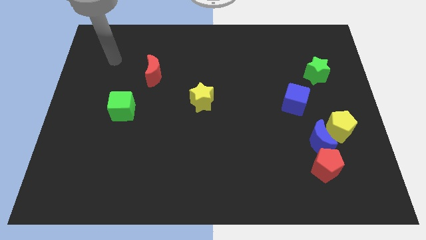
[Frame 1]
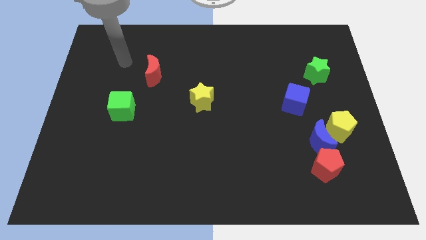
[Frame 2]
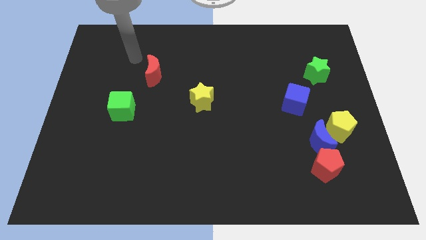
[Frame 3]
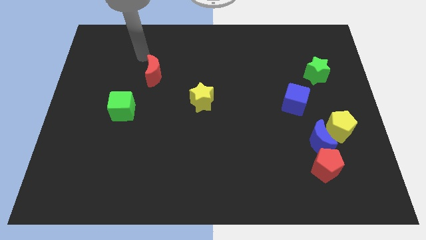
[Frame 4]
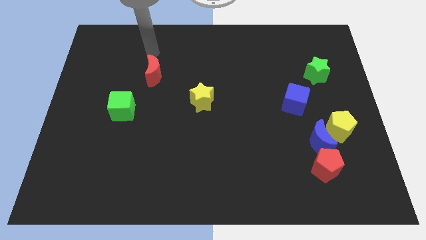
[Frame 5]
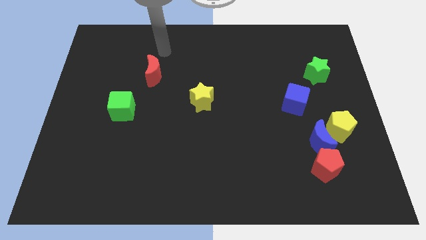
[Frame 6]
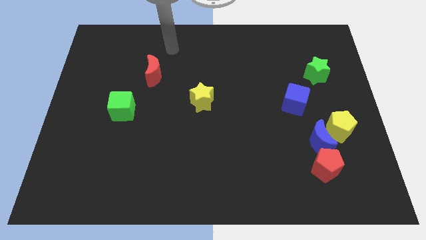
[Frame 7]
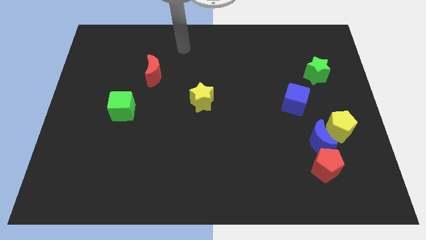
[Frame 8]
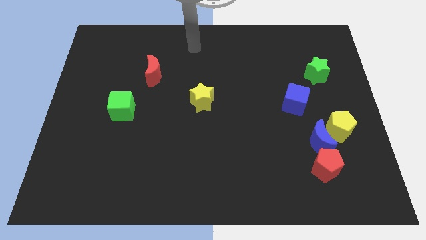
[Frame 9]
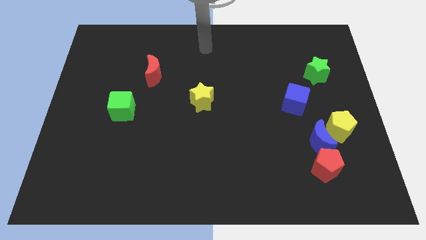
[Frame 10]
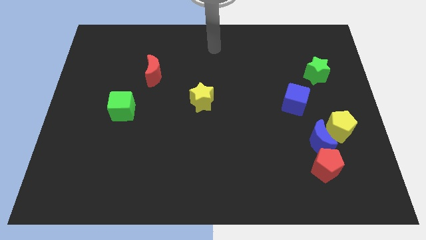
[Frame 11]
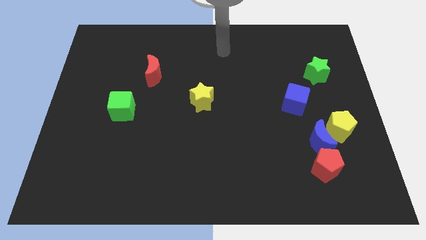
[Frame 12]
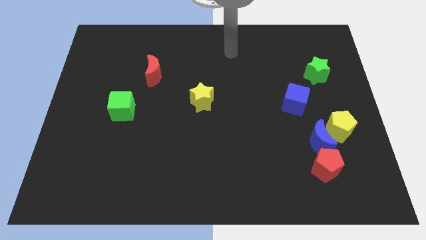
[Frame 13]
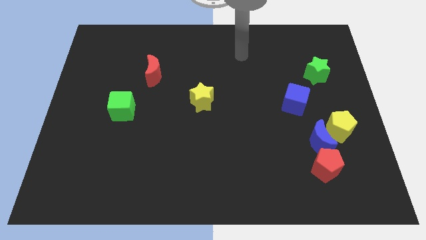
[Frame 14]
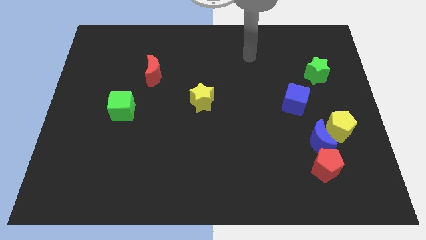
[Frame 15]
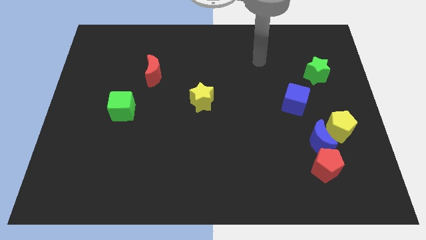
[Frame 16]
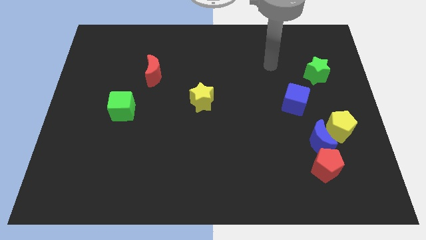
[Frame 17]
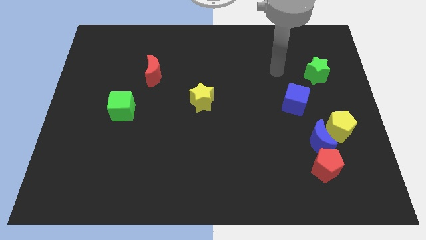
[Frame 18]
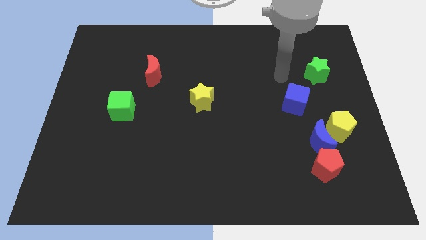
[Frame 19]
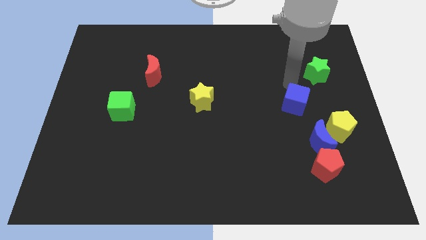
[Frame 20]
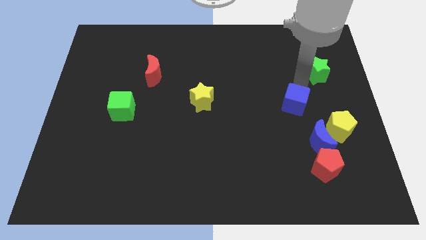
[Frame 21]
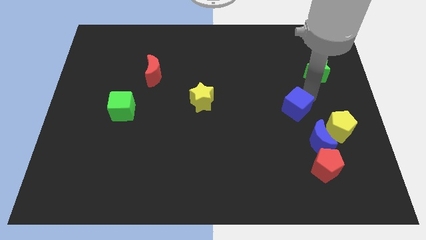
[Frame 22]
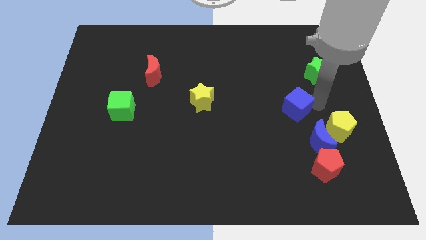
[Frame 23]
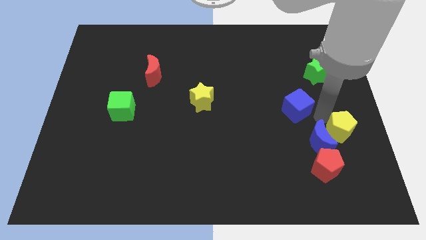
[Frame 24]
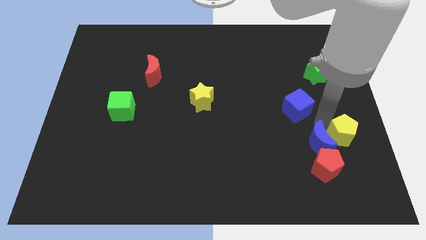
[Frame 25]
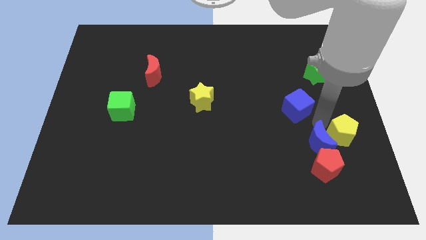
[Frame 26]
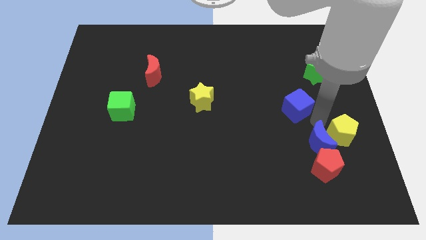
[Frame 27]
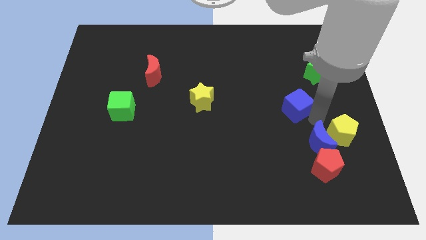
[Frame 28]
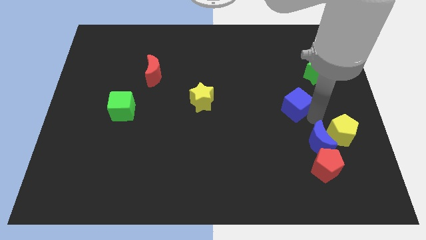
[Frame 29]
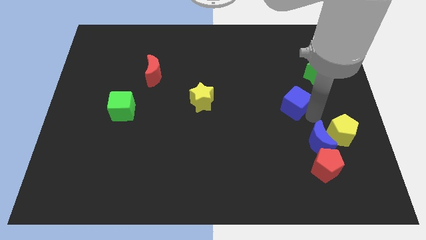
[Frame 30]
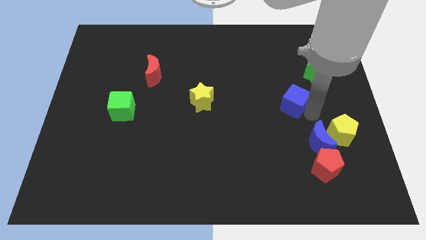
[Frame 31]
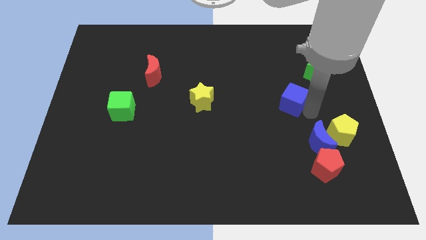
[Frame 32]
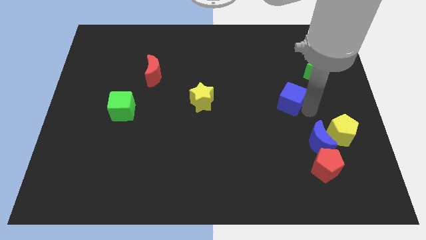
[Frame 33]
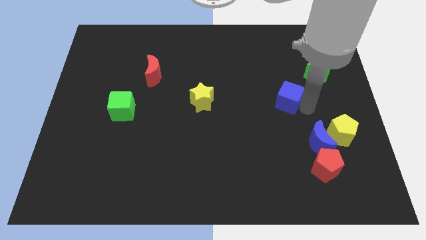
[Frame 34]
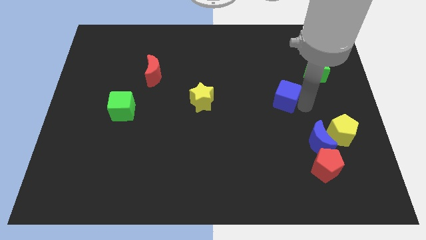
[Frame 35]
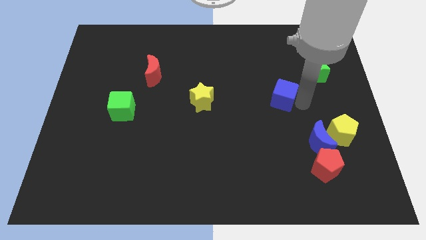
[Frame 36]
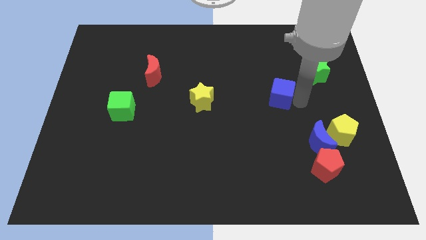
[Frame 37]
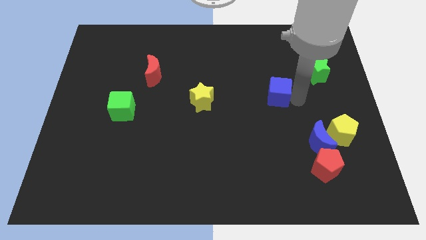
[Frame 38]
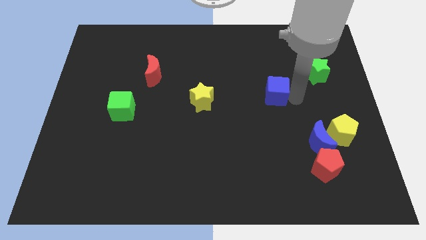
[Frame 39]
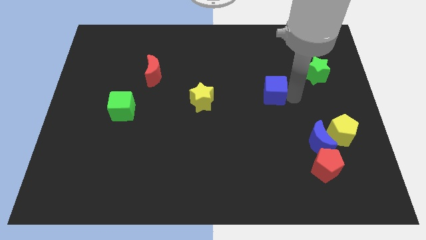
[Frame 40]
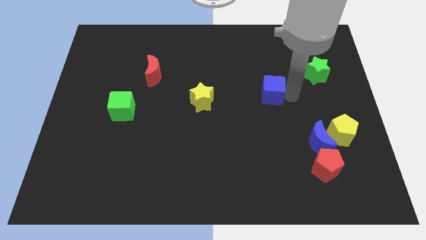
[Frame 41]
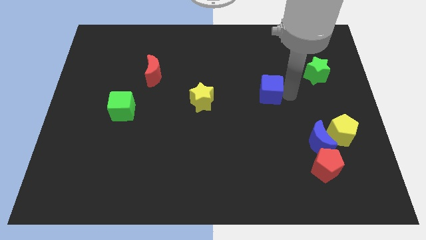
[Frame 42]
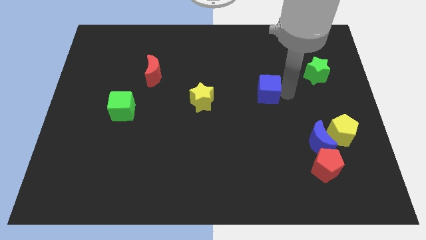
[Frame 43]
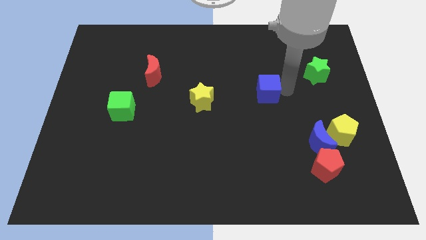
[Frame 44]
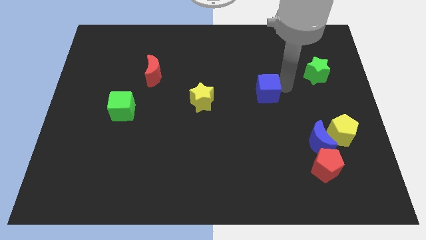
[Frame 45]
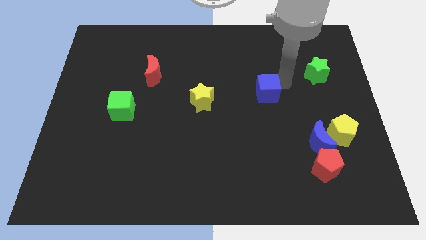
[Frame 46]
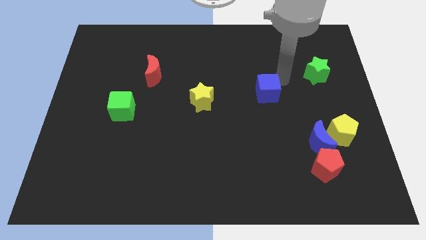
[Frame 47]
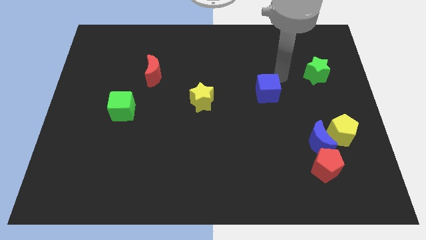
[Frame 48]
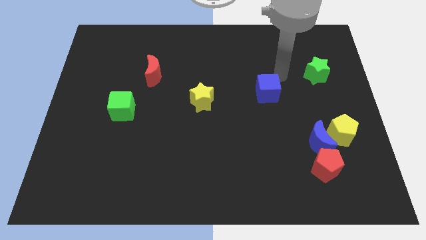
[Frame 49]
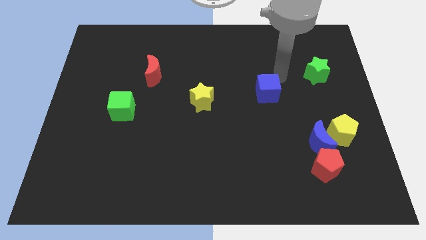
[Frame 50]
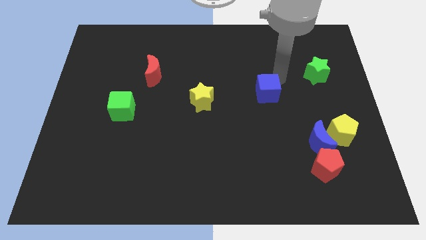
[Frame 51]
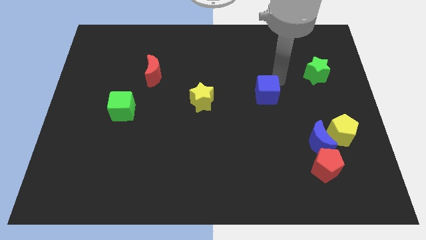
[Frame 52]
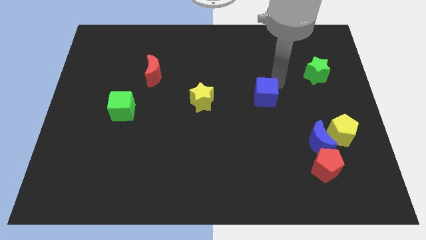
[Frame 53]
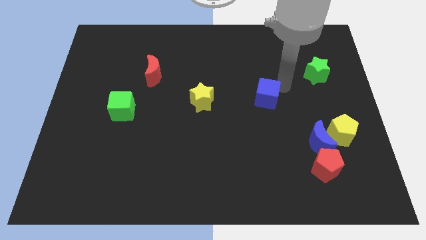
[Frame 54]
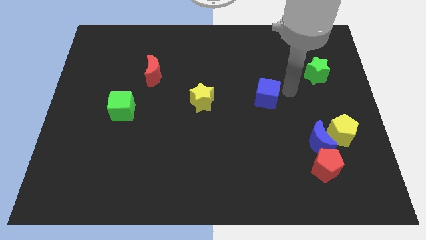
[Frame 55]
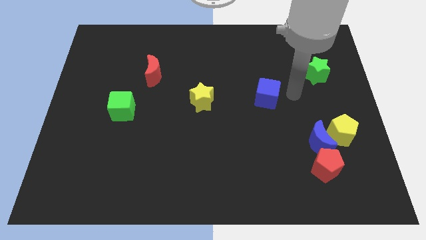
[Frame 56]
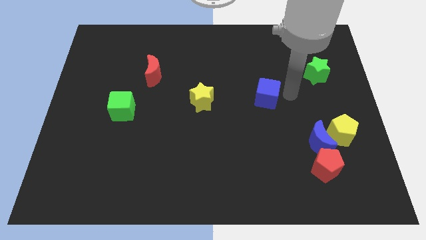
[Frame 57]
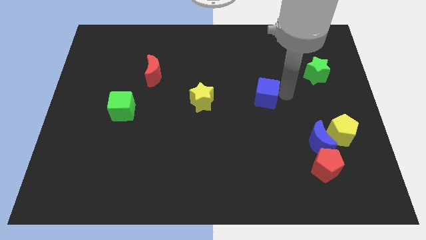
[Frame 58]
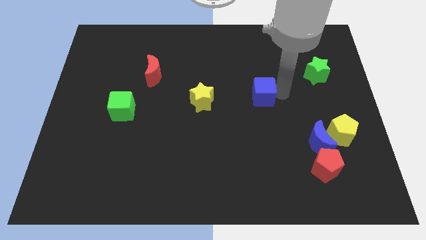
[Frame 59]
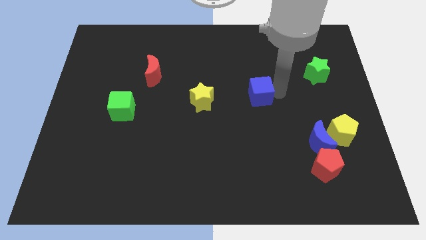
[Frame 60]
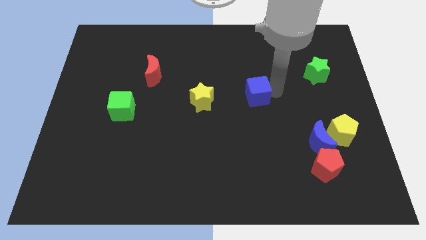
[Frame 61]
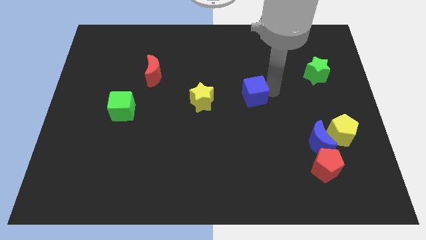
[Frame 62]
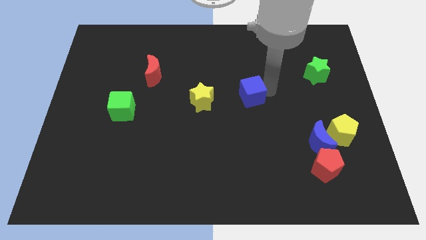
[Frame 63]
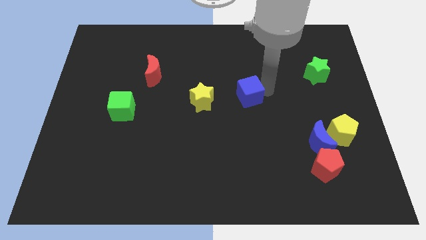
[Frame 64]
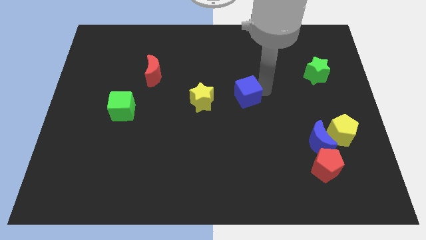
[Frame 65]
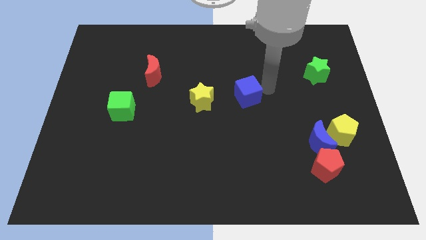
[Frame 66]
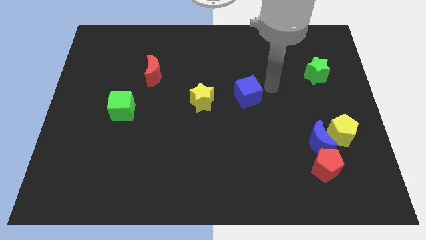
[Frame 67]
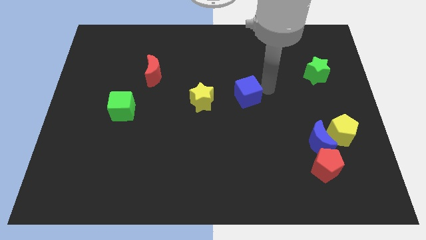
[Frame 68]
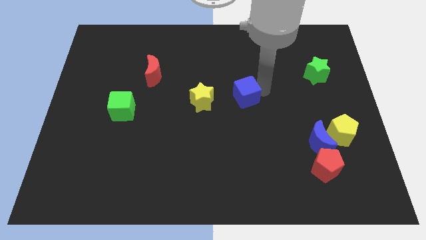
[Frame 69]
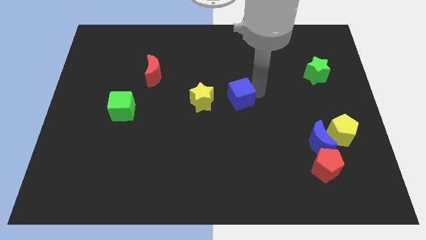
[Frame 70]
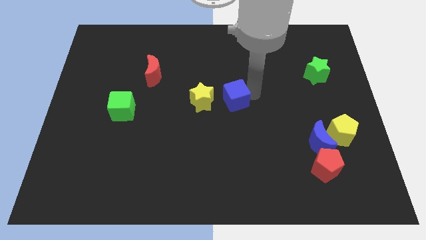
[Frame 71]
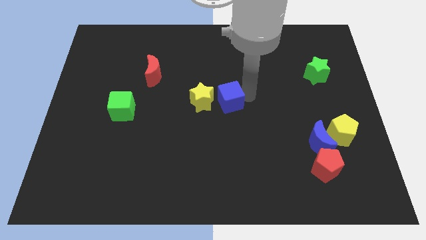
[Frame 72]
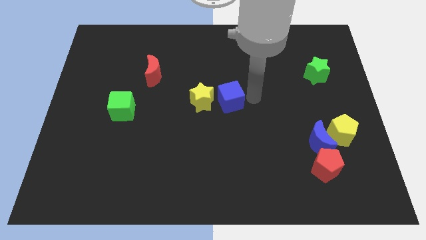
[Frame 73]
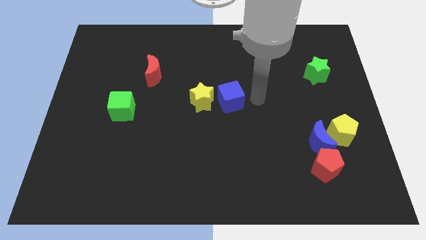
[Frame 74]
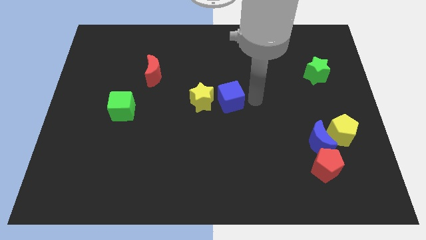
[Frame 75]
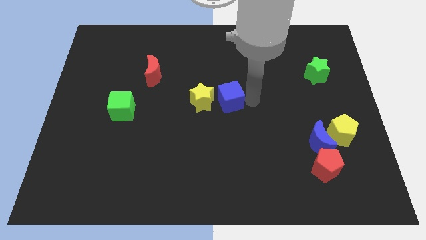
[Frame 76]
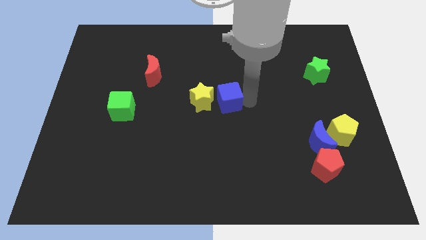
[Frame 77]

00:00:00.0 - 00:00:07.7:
slide the blue cube to the yellow star

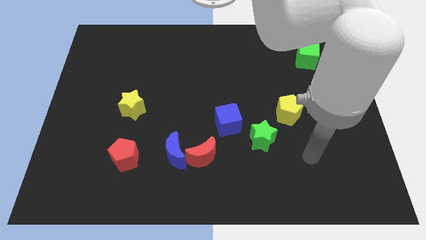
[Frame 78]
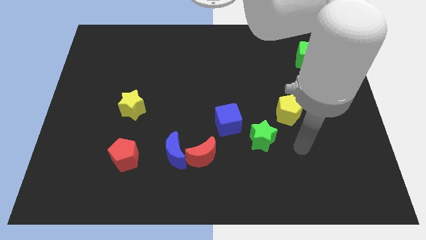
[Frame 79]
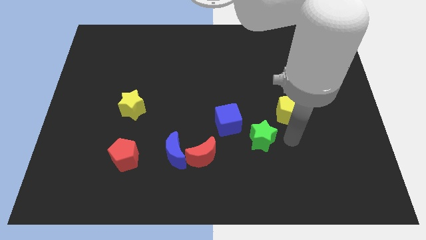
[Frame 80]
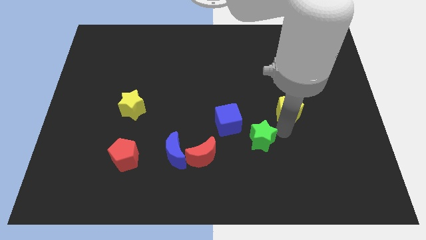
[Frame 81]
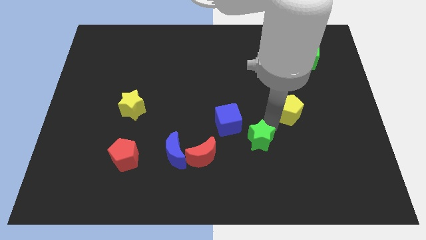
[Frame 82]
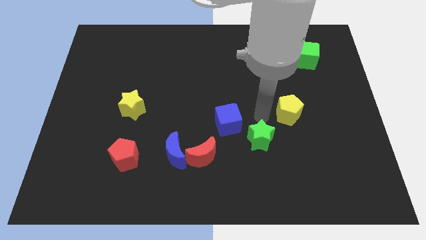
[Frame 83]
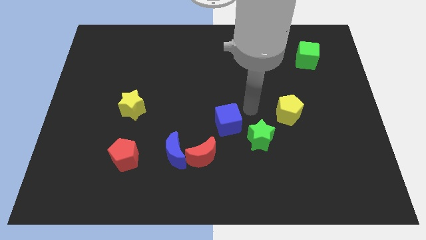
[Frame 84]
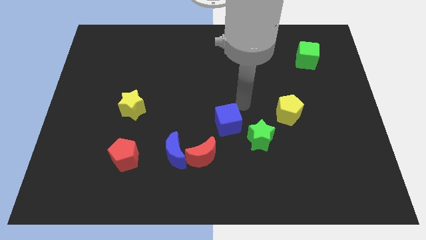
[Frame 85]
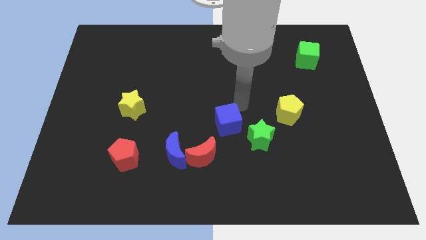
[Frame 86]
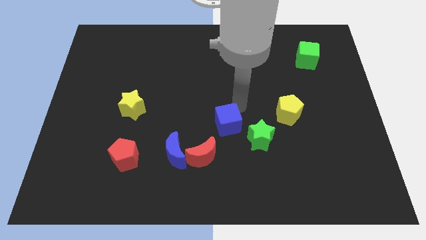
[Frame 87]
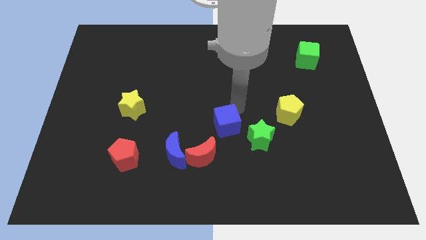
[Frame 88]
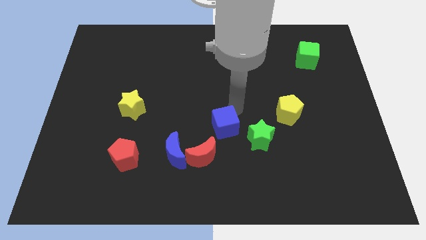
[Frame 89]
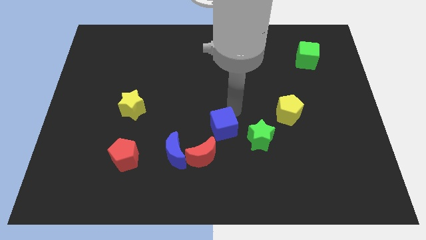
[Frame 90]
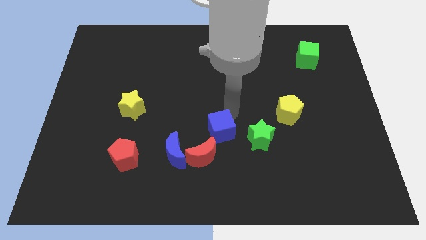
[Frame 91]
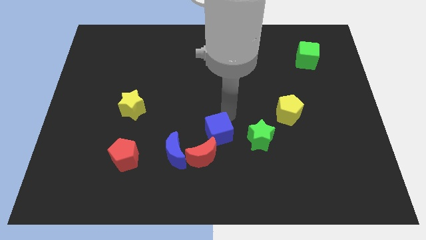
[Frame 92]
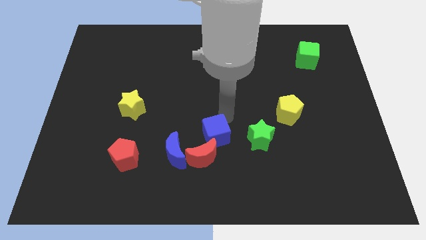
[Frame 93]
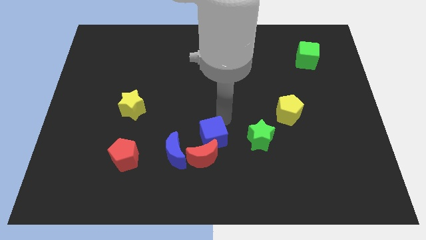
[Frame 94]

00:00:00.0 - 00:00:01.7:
push the blue cube close to the red moon
